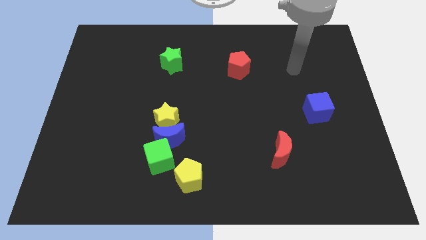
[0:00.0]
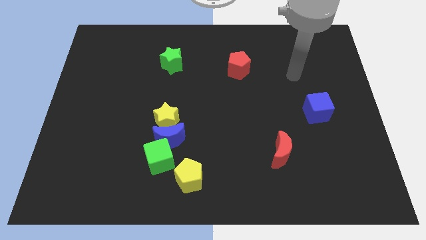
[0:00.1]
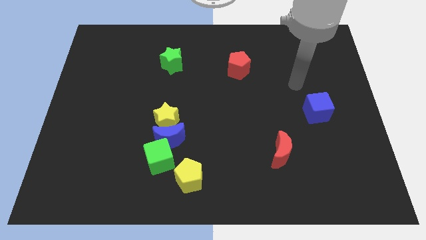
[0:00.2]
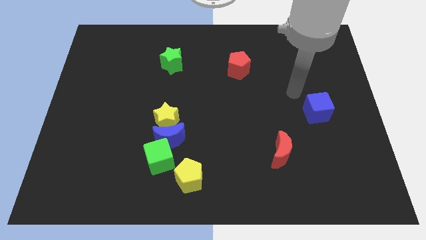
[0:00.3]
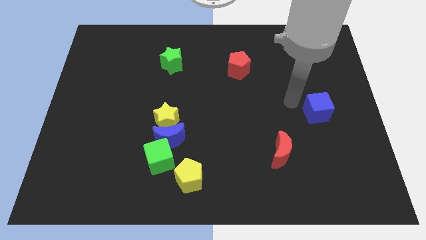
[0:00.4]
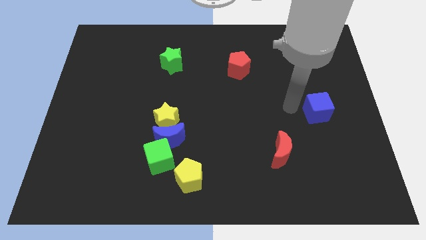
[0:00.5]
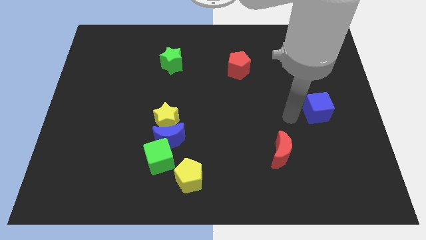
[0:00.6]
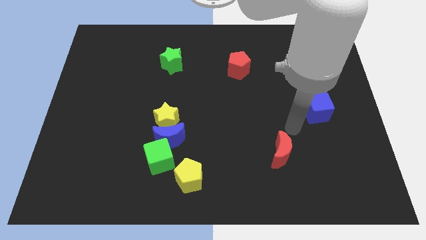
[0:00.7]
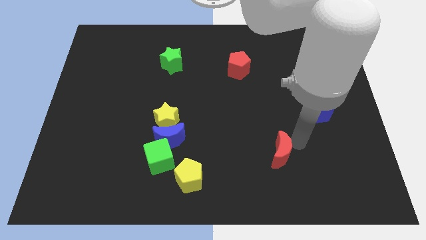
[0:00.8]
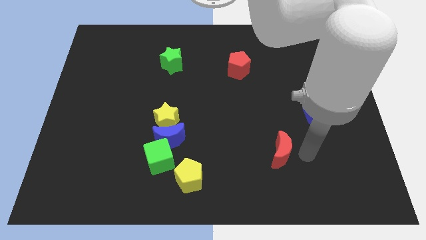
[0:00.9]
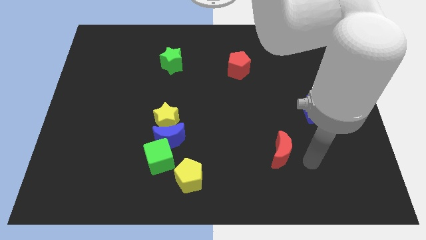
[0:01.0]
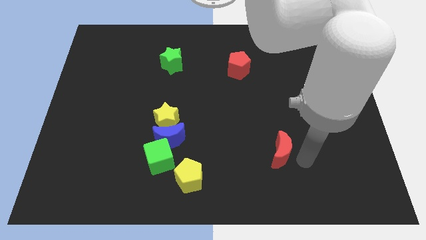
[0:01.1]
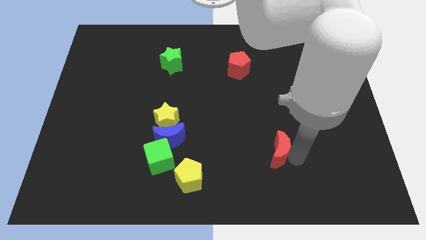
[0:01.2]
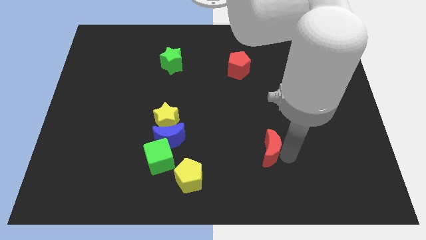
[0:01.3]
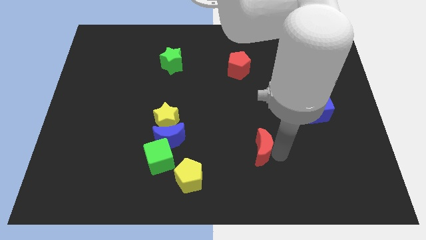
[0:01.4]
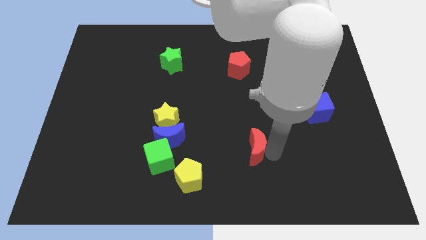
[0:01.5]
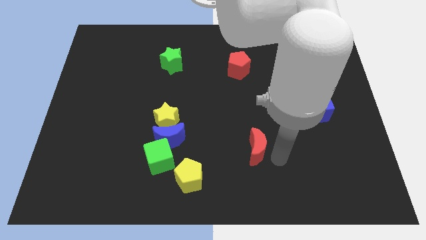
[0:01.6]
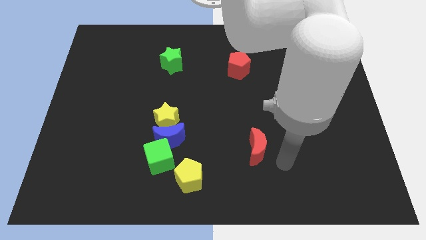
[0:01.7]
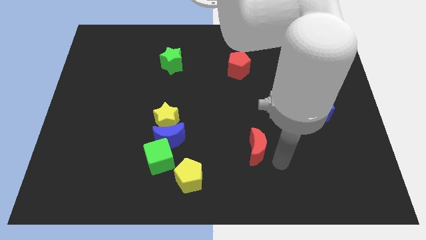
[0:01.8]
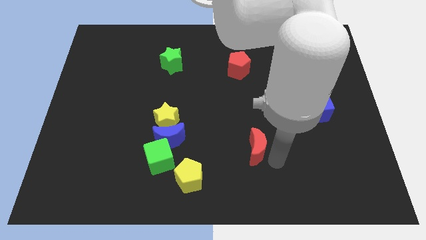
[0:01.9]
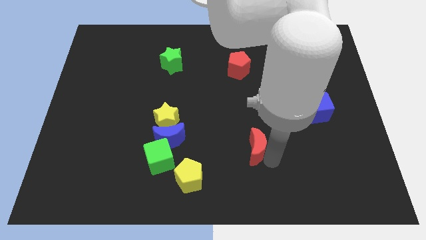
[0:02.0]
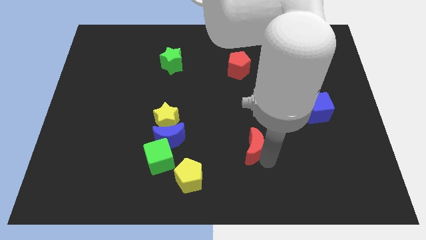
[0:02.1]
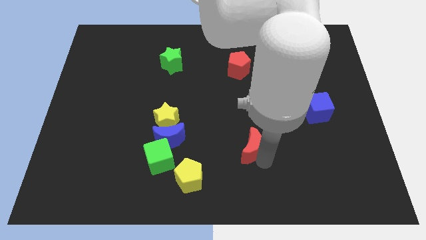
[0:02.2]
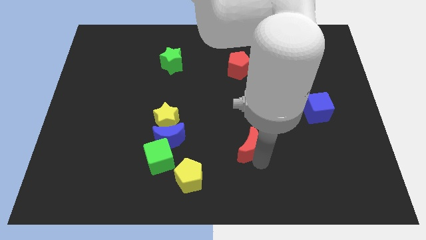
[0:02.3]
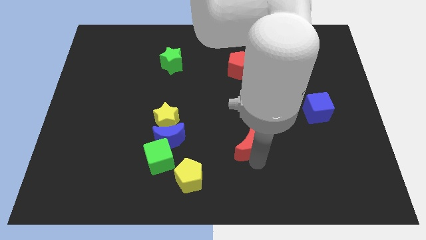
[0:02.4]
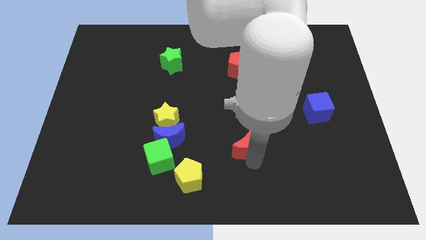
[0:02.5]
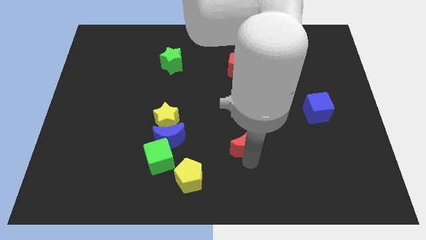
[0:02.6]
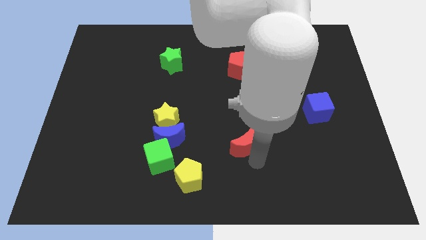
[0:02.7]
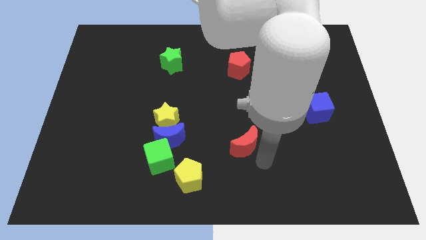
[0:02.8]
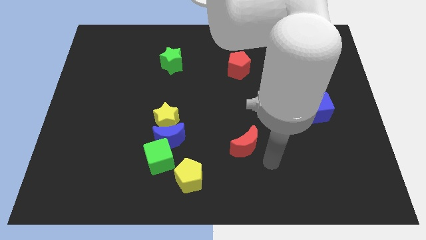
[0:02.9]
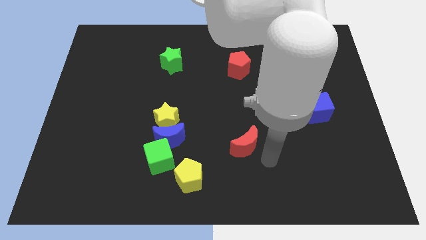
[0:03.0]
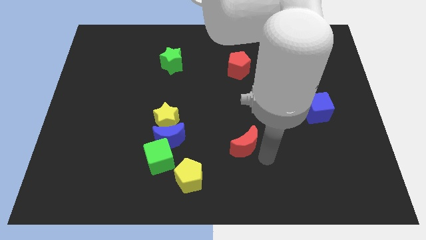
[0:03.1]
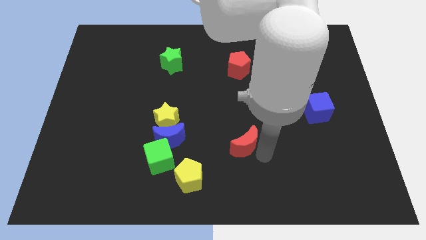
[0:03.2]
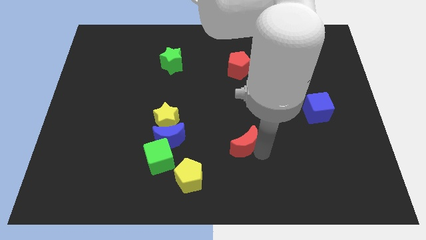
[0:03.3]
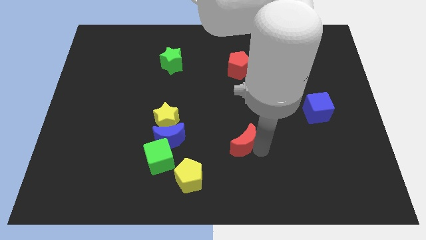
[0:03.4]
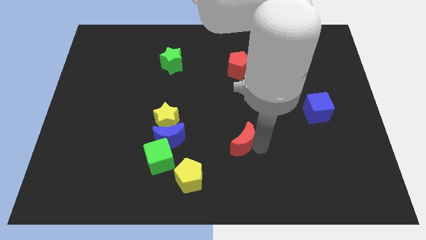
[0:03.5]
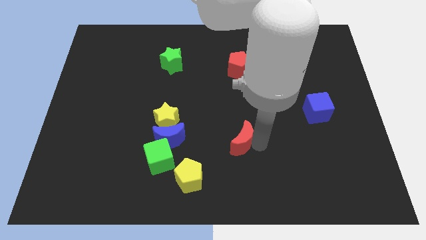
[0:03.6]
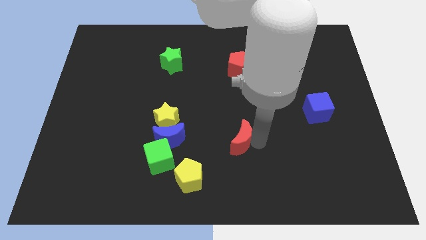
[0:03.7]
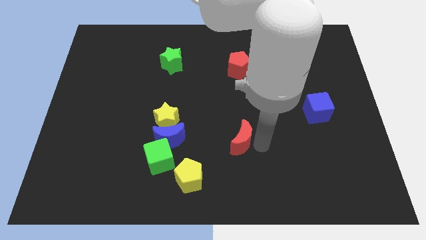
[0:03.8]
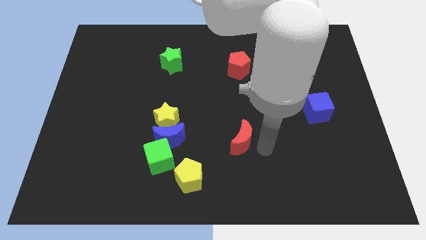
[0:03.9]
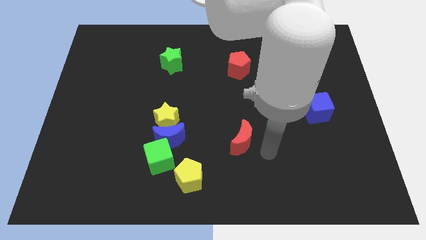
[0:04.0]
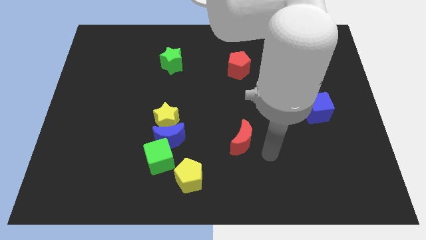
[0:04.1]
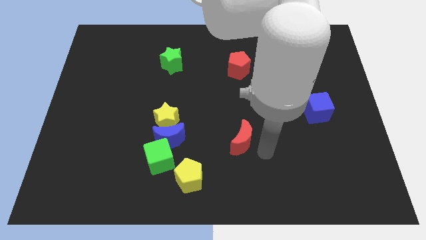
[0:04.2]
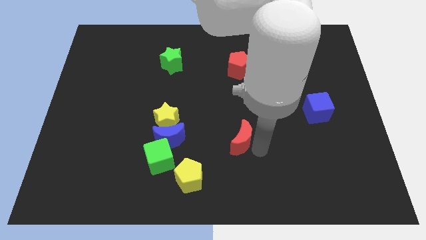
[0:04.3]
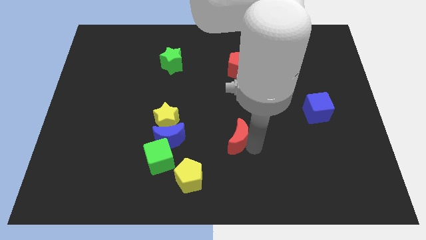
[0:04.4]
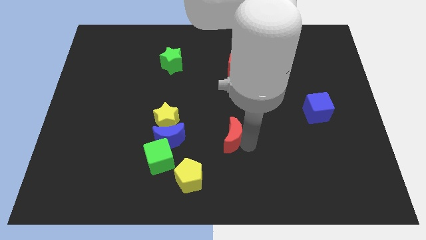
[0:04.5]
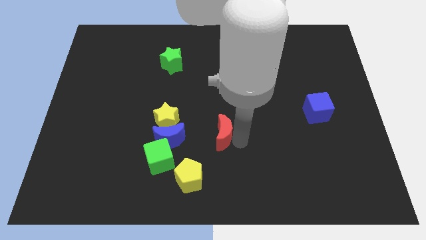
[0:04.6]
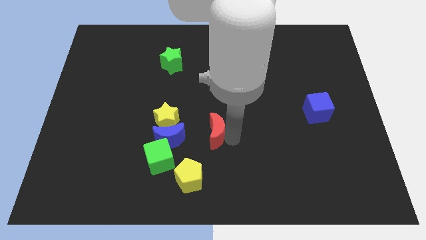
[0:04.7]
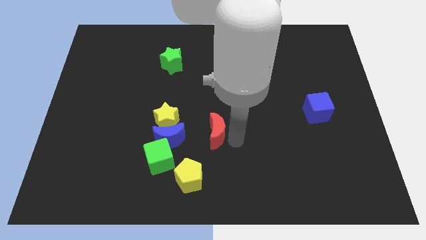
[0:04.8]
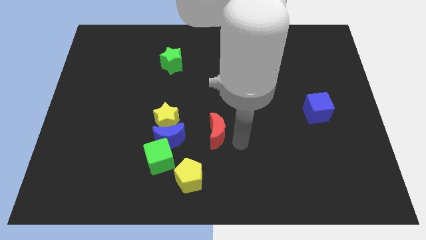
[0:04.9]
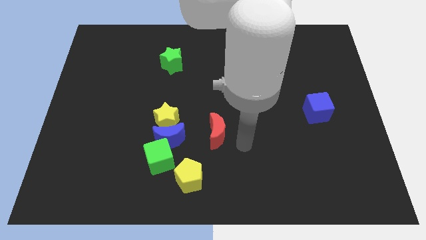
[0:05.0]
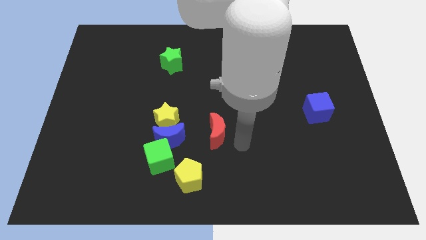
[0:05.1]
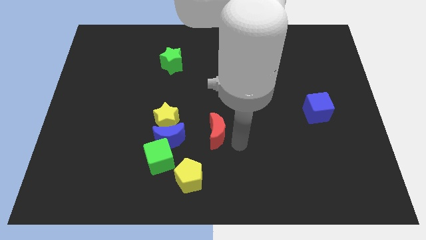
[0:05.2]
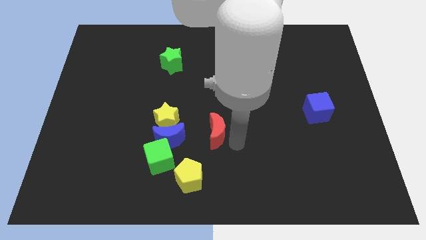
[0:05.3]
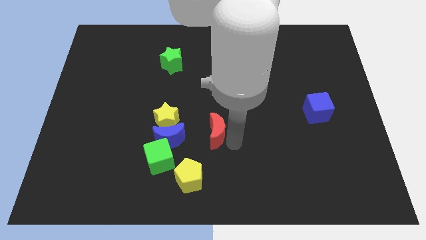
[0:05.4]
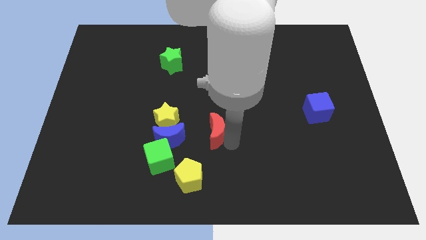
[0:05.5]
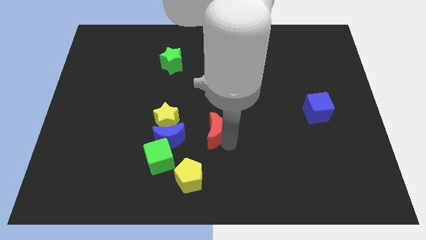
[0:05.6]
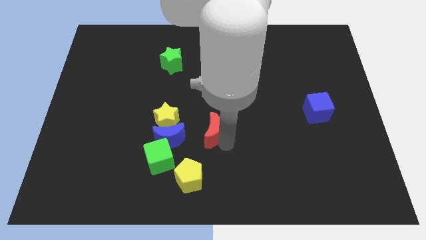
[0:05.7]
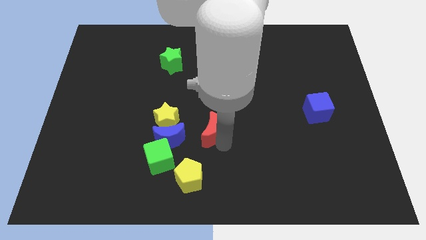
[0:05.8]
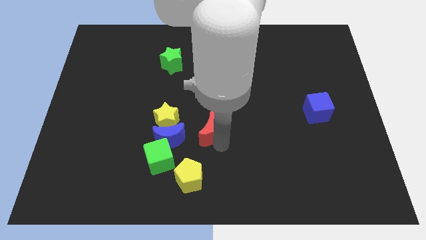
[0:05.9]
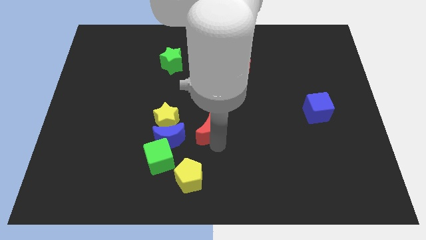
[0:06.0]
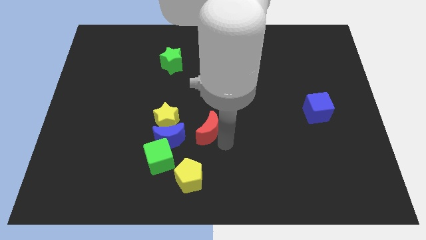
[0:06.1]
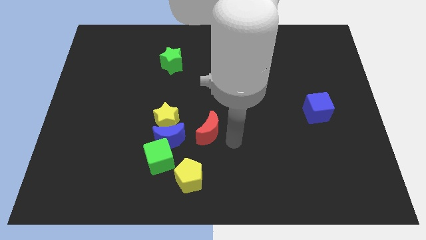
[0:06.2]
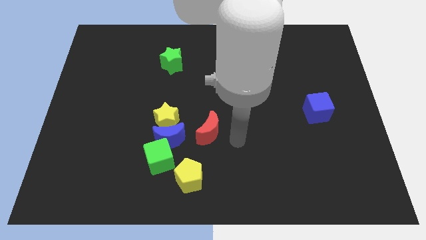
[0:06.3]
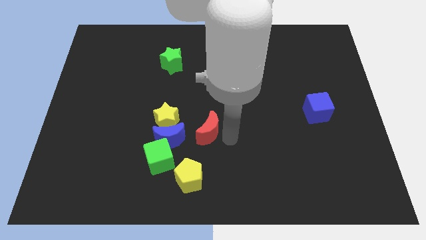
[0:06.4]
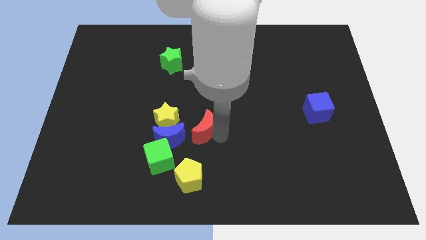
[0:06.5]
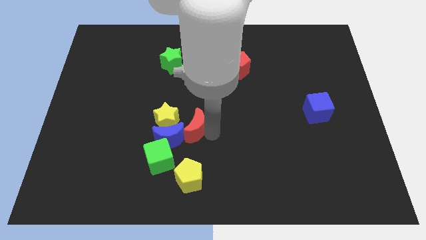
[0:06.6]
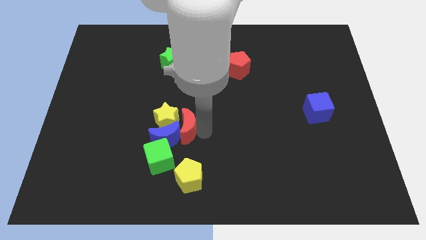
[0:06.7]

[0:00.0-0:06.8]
slide the red moon close to the yellow star
